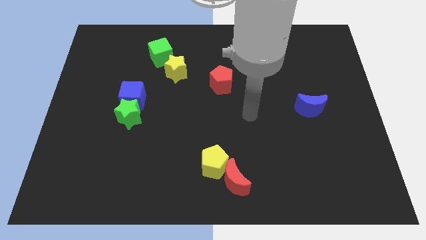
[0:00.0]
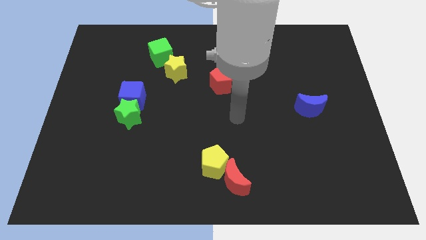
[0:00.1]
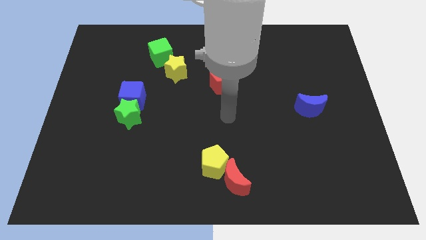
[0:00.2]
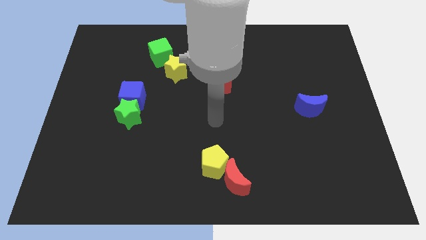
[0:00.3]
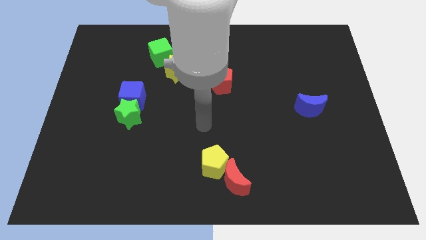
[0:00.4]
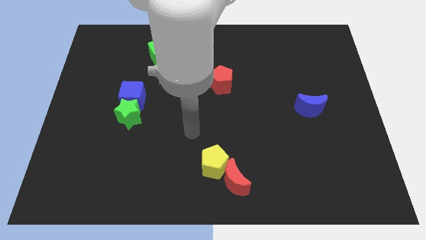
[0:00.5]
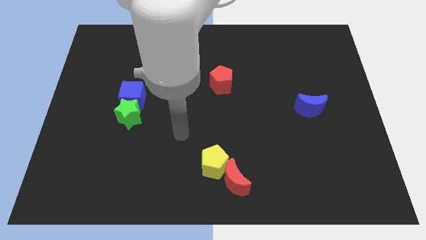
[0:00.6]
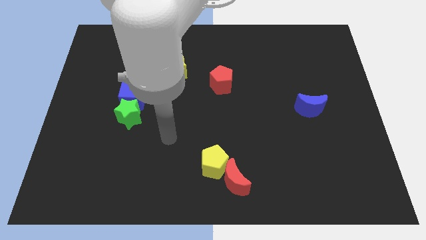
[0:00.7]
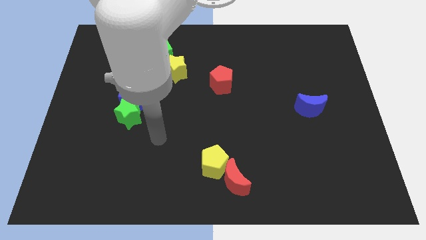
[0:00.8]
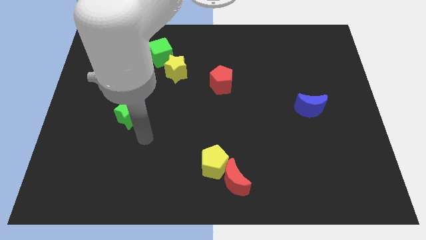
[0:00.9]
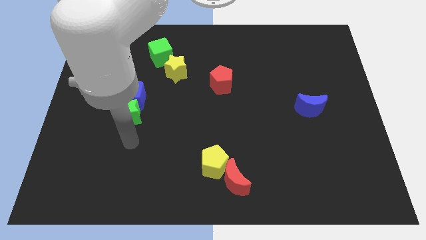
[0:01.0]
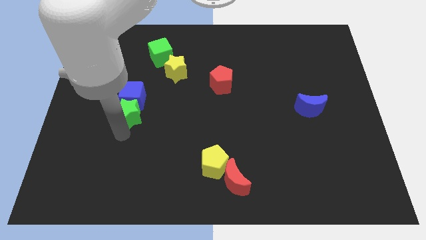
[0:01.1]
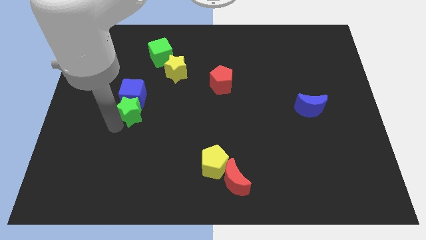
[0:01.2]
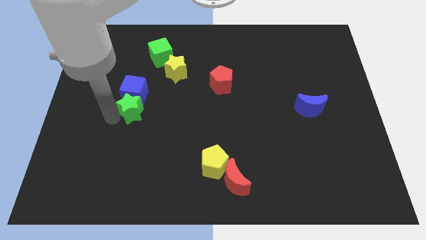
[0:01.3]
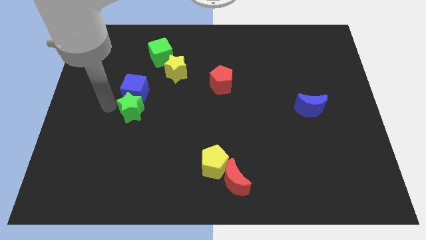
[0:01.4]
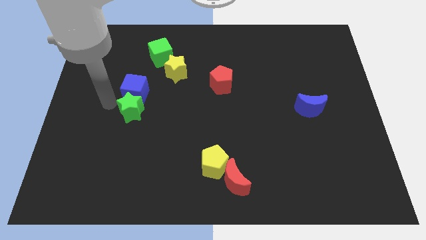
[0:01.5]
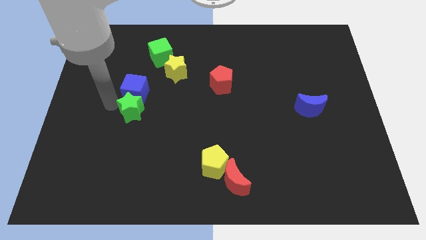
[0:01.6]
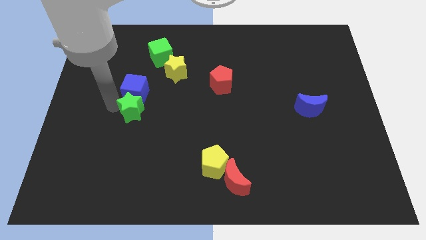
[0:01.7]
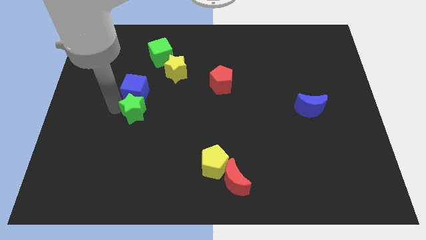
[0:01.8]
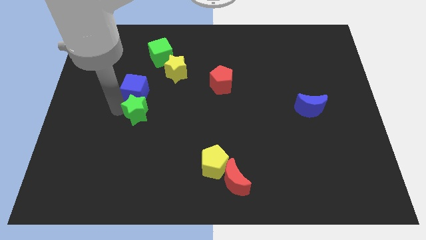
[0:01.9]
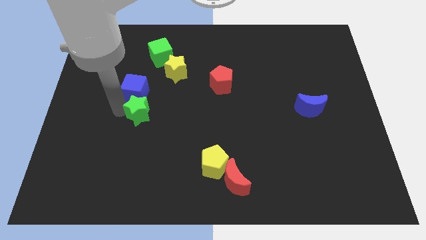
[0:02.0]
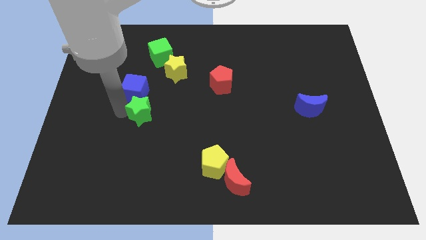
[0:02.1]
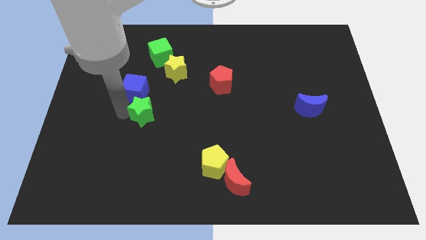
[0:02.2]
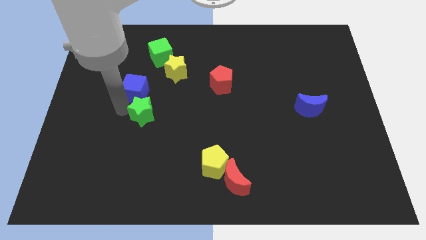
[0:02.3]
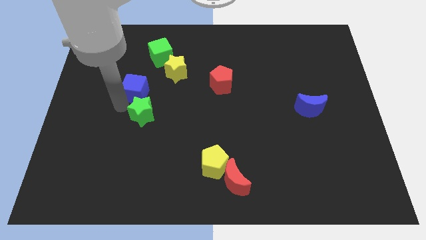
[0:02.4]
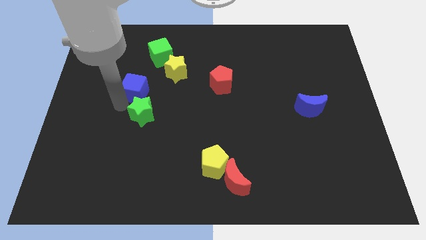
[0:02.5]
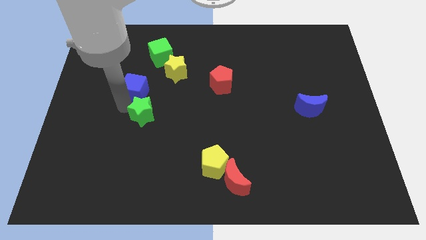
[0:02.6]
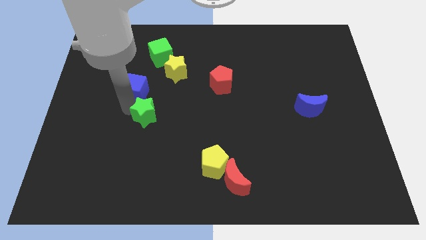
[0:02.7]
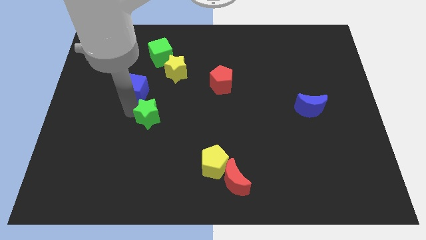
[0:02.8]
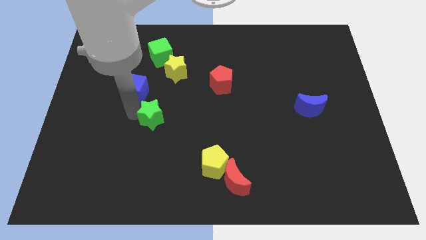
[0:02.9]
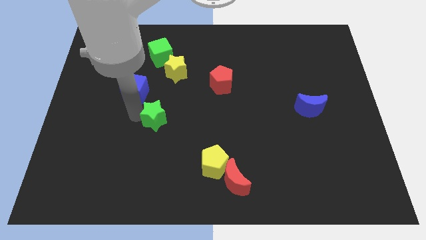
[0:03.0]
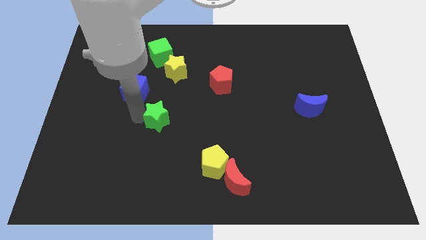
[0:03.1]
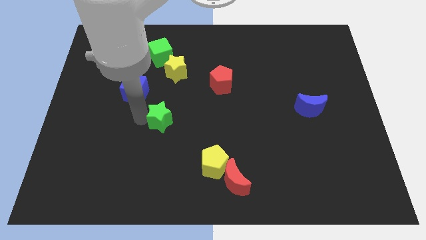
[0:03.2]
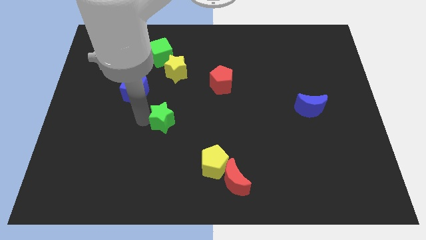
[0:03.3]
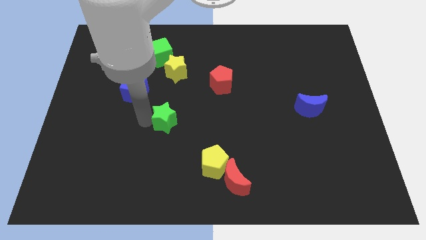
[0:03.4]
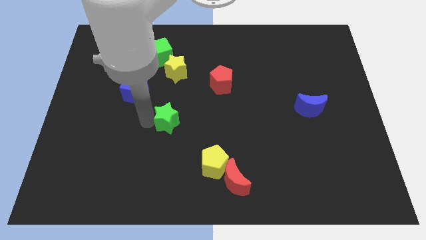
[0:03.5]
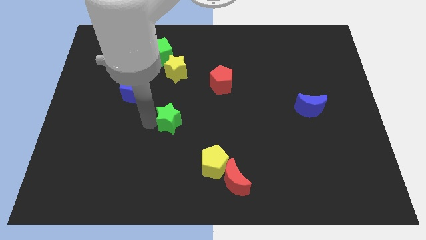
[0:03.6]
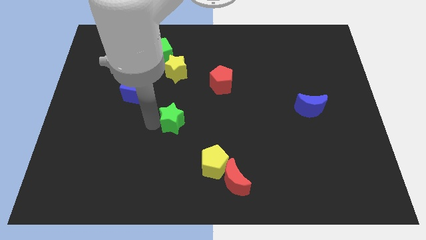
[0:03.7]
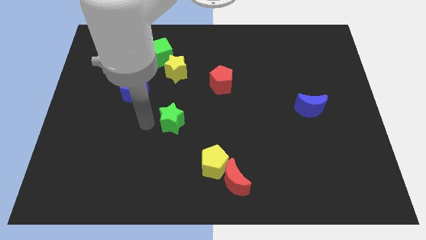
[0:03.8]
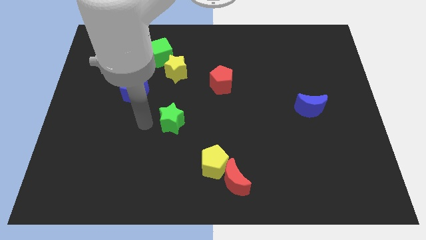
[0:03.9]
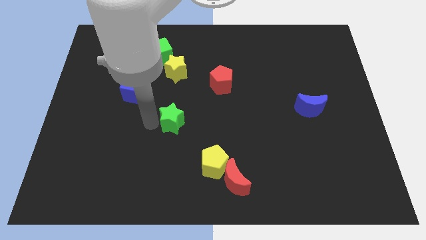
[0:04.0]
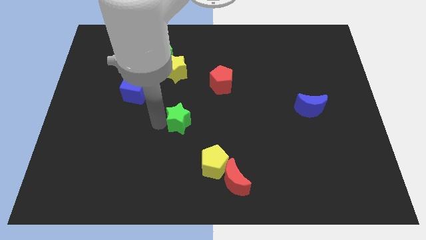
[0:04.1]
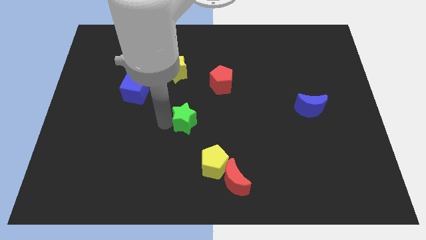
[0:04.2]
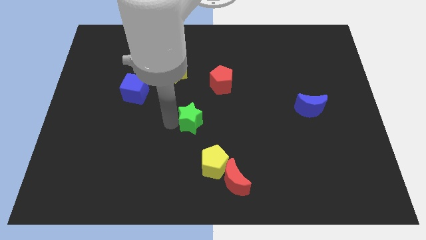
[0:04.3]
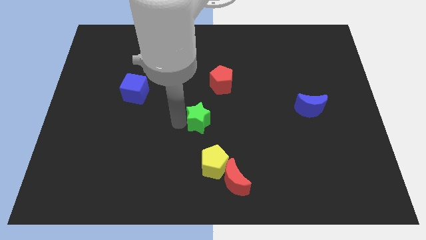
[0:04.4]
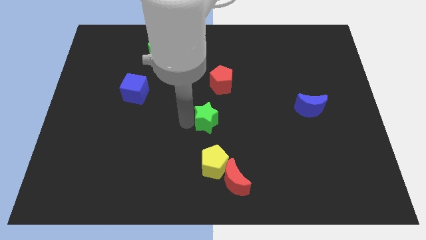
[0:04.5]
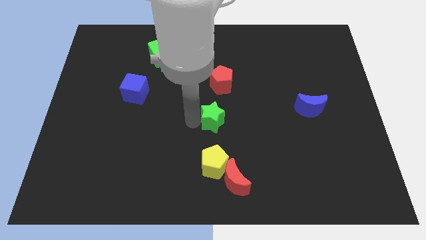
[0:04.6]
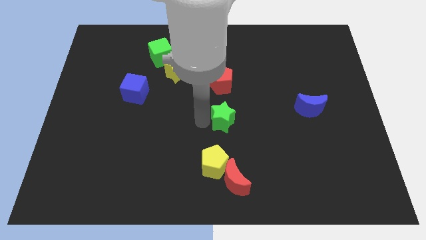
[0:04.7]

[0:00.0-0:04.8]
slide the green star right

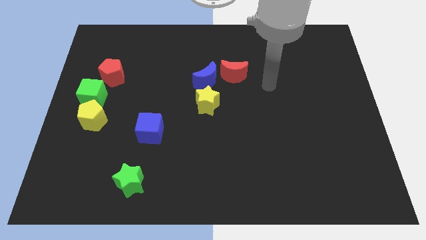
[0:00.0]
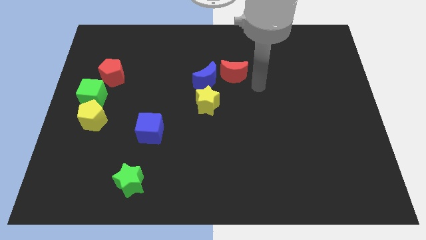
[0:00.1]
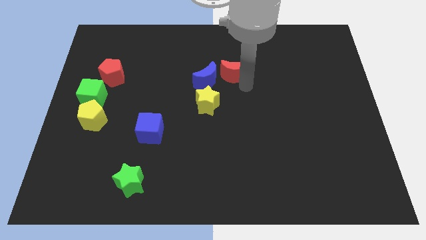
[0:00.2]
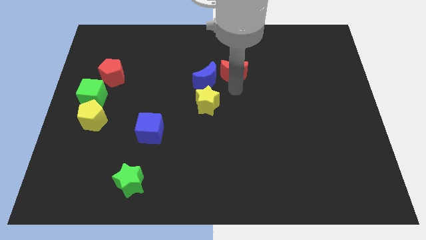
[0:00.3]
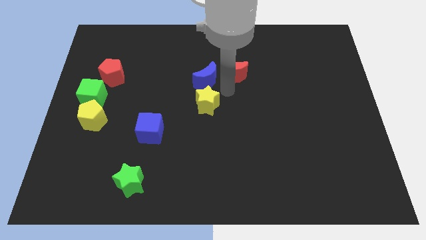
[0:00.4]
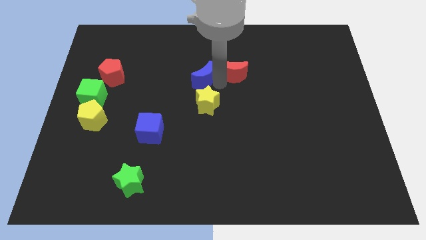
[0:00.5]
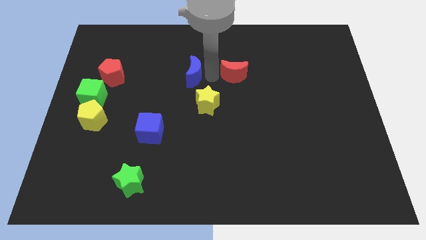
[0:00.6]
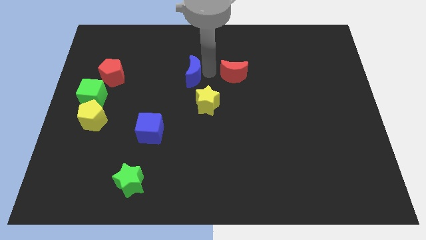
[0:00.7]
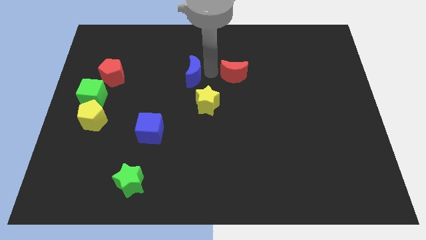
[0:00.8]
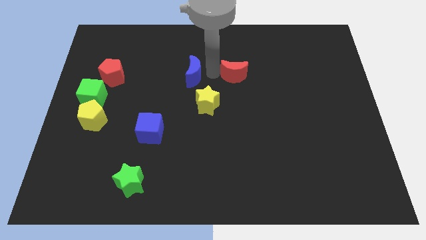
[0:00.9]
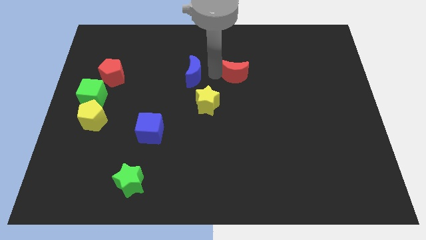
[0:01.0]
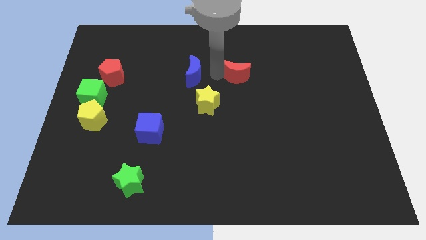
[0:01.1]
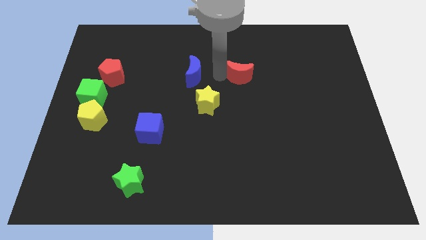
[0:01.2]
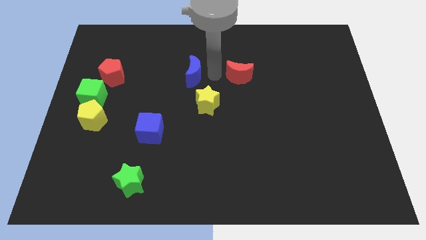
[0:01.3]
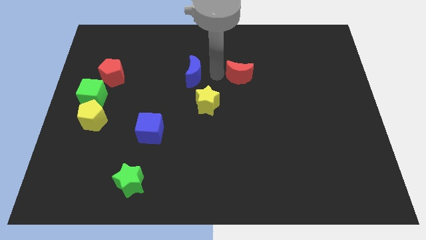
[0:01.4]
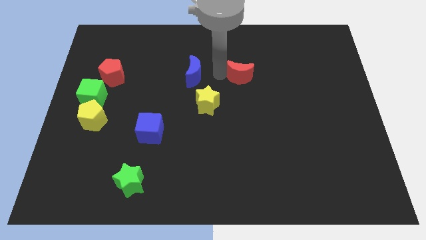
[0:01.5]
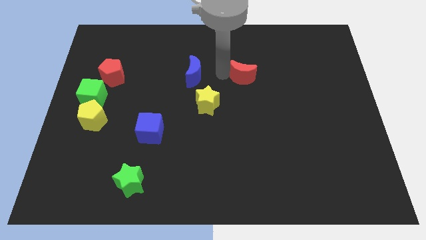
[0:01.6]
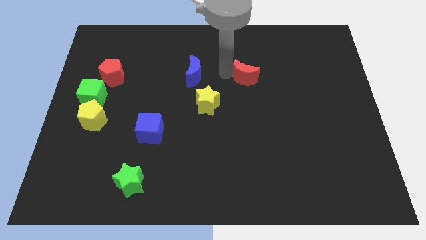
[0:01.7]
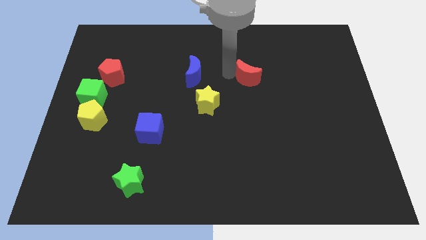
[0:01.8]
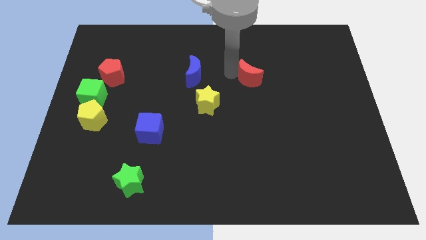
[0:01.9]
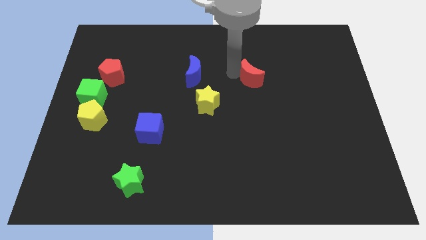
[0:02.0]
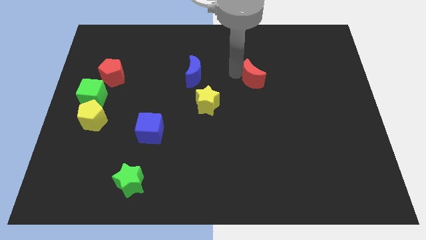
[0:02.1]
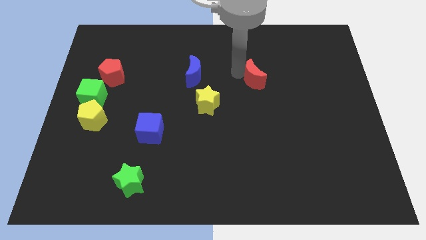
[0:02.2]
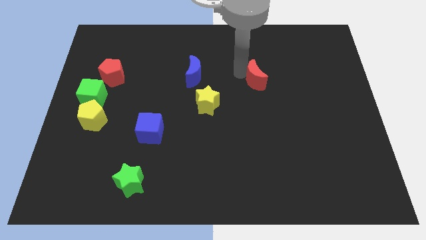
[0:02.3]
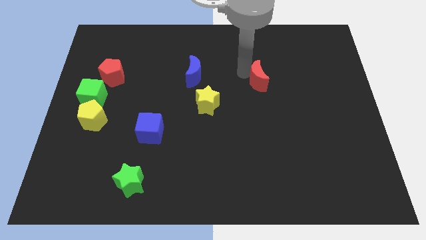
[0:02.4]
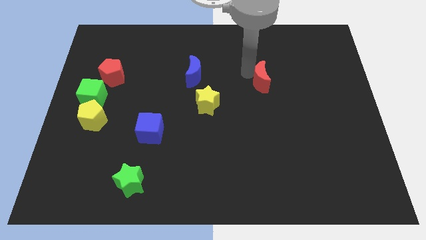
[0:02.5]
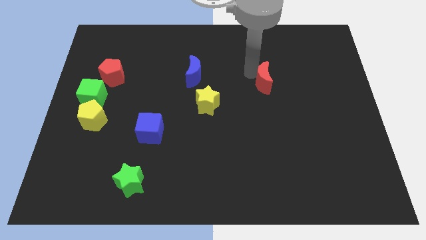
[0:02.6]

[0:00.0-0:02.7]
slightly push the red moon to the right

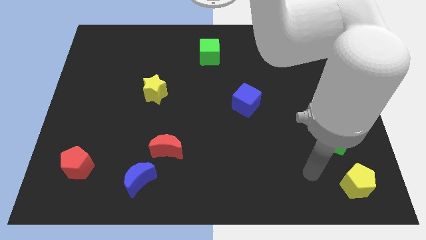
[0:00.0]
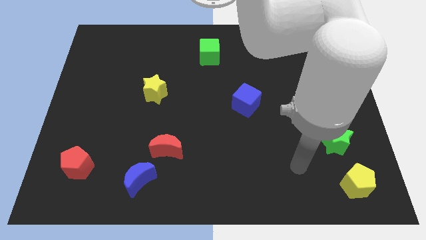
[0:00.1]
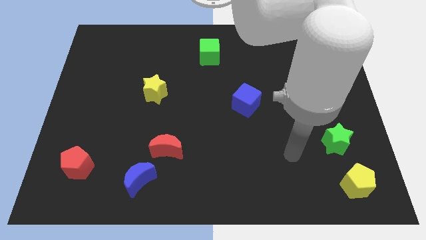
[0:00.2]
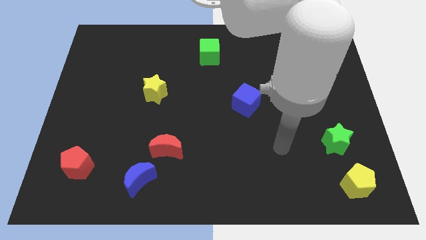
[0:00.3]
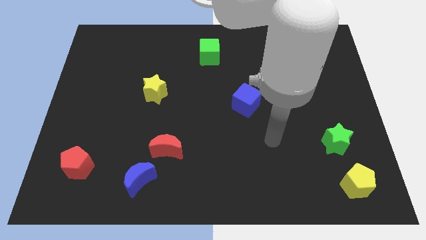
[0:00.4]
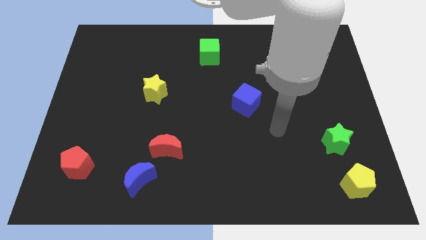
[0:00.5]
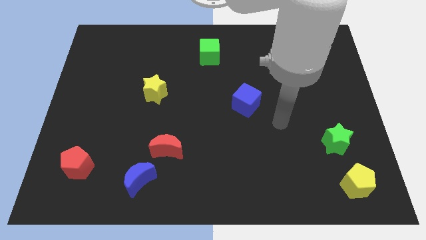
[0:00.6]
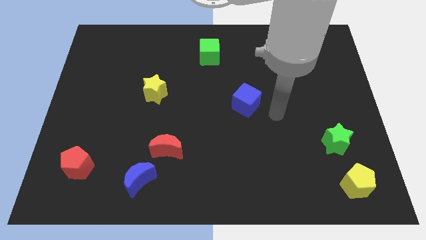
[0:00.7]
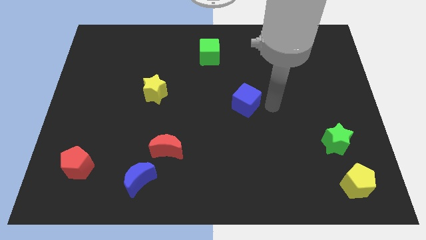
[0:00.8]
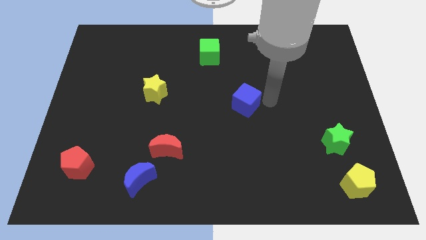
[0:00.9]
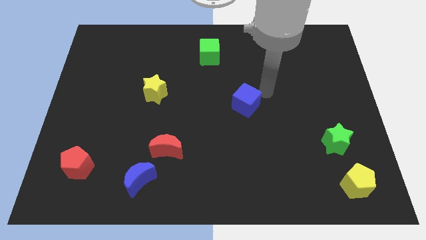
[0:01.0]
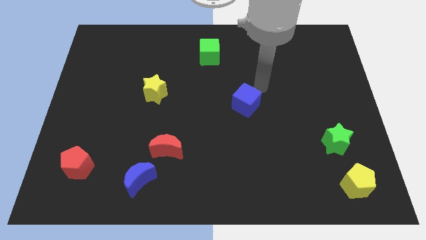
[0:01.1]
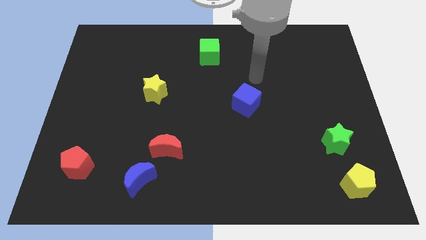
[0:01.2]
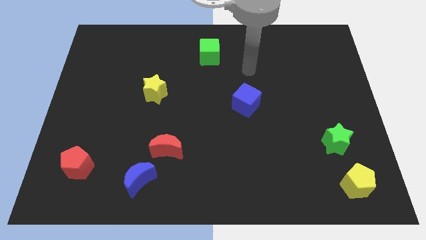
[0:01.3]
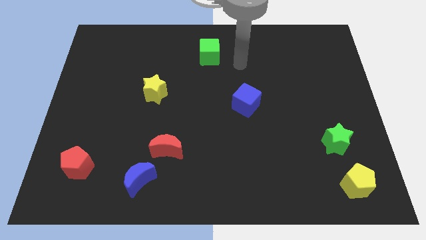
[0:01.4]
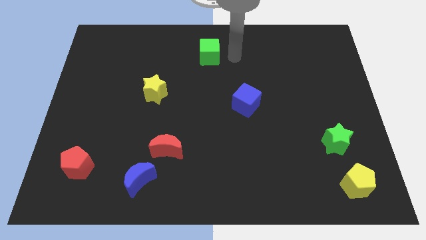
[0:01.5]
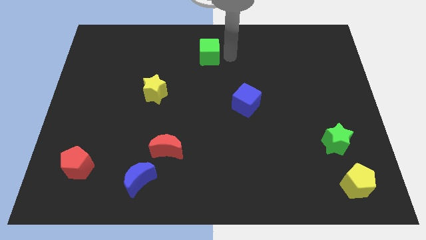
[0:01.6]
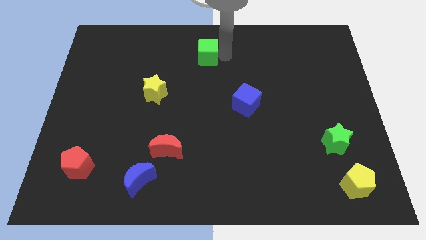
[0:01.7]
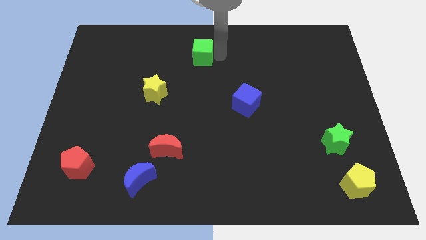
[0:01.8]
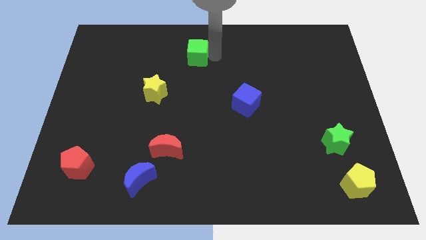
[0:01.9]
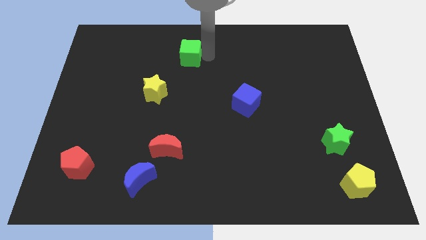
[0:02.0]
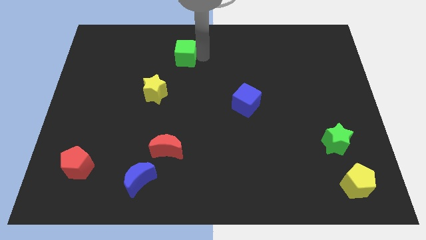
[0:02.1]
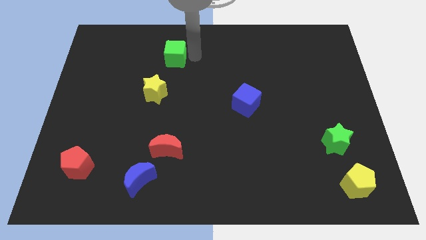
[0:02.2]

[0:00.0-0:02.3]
slide the green cube left a little
